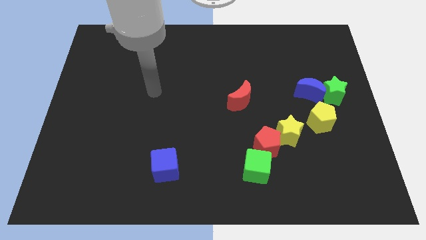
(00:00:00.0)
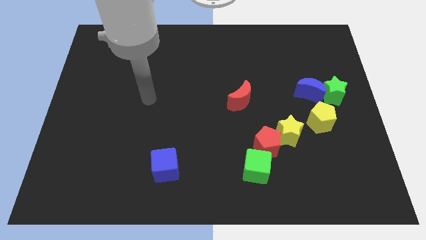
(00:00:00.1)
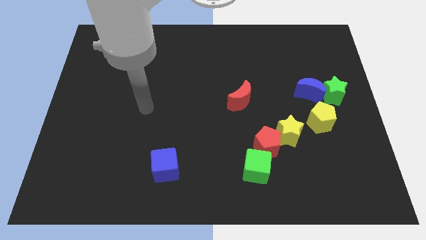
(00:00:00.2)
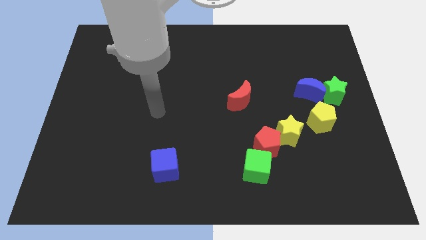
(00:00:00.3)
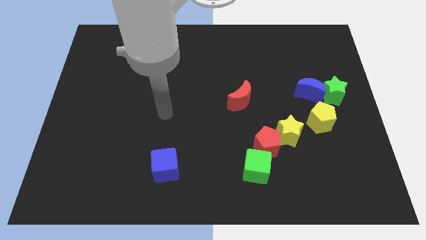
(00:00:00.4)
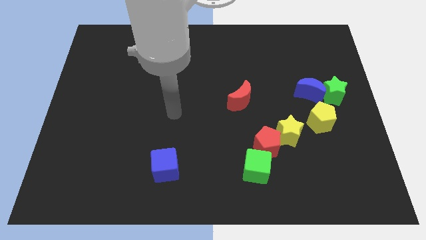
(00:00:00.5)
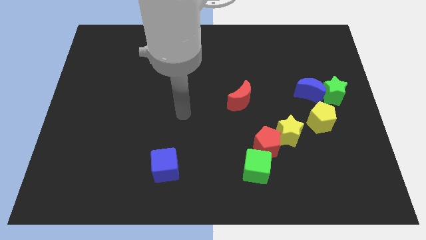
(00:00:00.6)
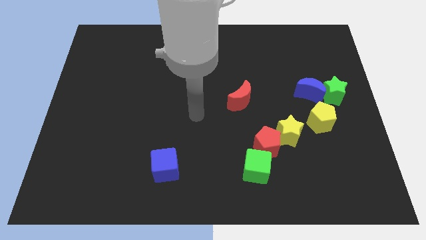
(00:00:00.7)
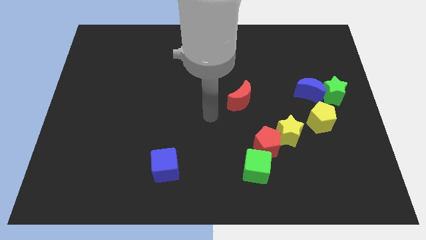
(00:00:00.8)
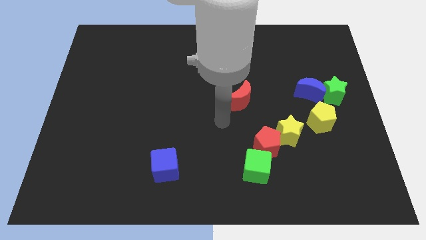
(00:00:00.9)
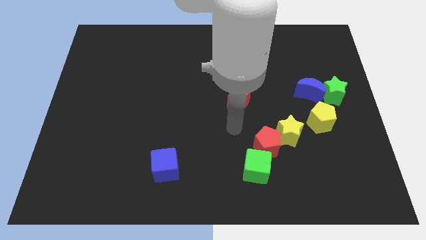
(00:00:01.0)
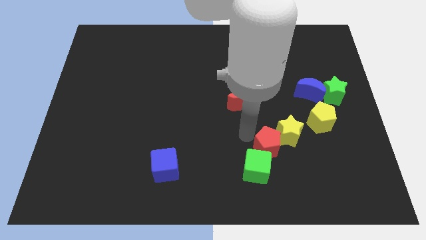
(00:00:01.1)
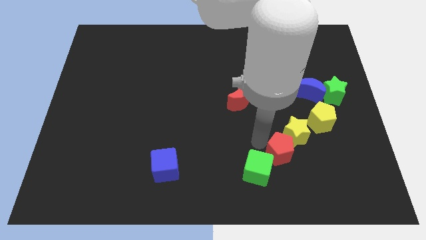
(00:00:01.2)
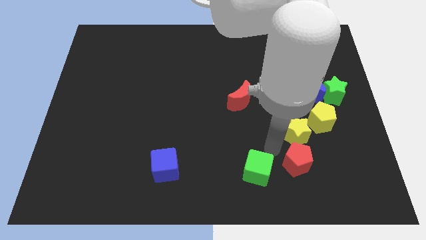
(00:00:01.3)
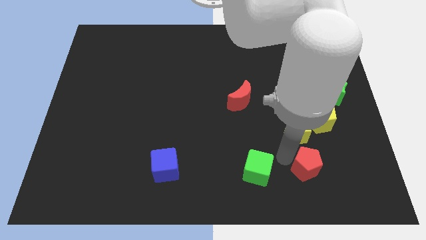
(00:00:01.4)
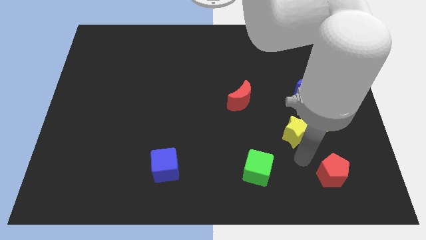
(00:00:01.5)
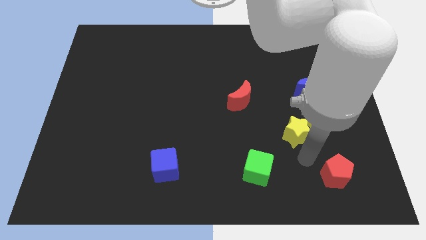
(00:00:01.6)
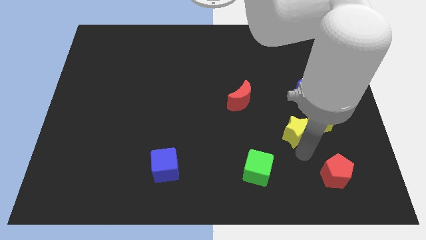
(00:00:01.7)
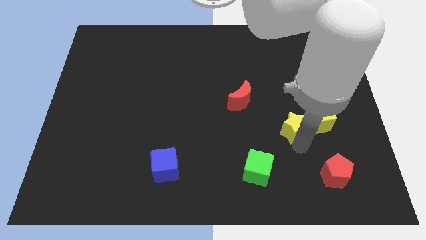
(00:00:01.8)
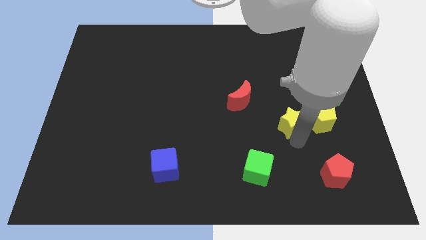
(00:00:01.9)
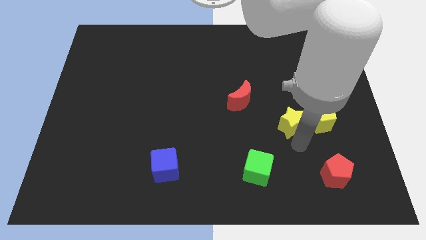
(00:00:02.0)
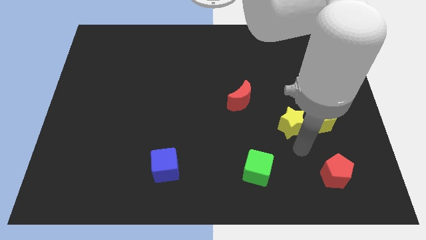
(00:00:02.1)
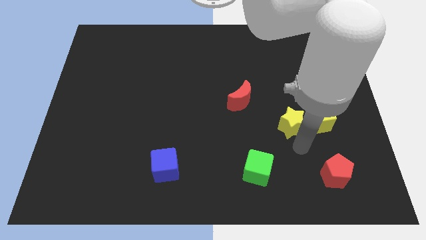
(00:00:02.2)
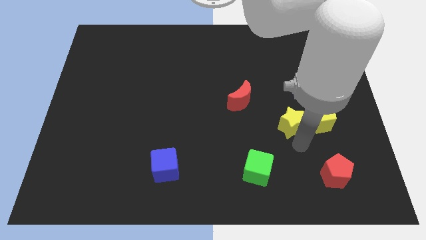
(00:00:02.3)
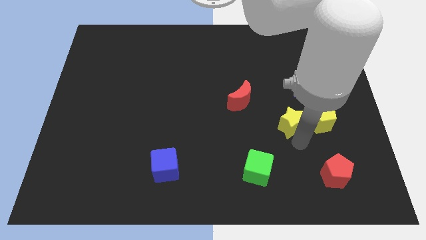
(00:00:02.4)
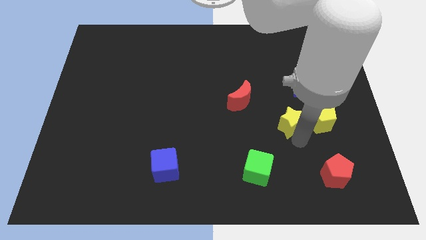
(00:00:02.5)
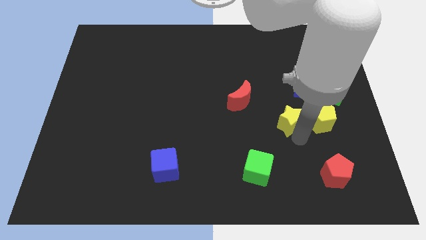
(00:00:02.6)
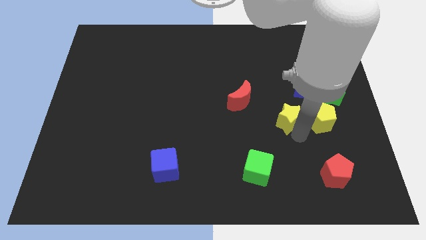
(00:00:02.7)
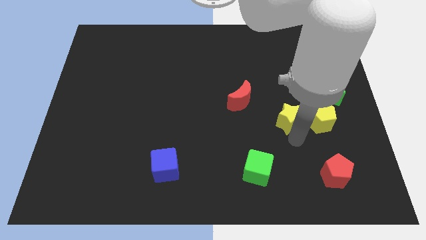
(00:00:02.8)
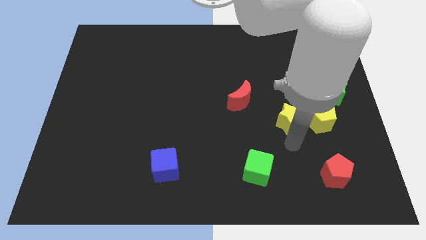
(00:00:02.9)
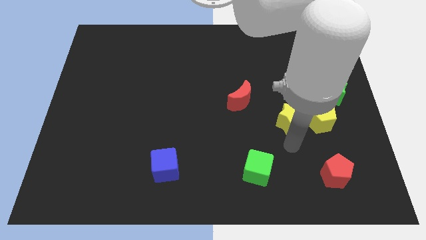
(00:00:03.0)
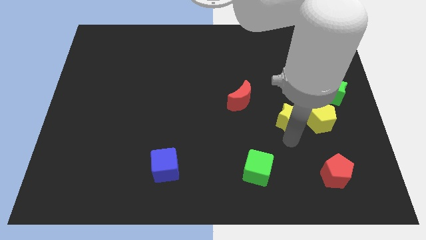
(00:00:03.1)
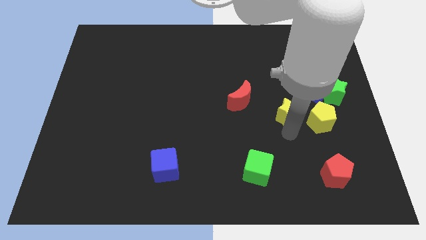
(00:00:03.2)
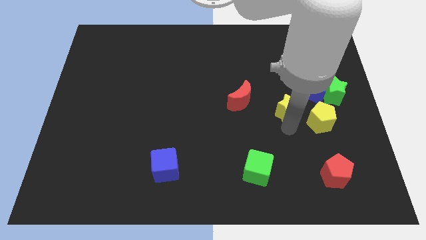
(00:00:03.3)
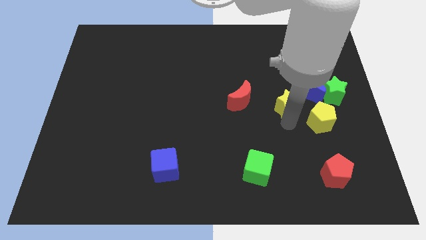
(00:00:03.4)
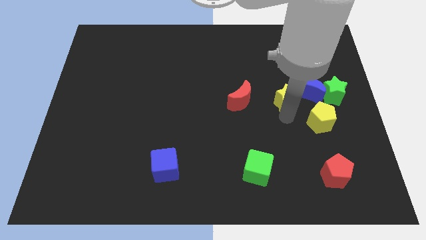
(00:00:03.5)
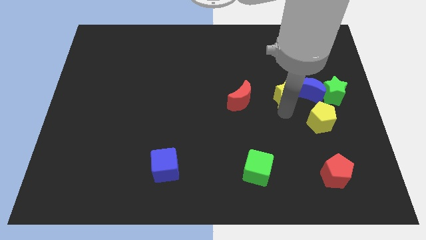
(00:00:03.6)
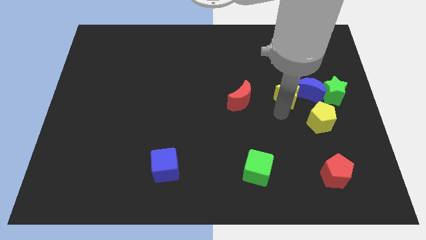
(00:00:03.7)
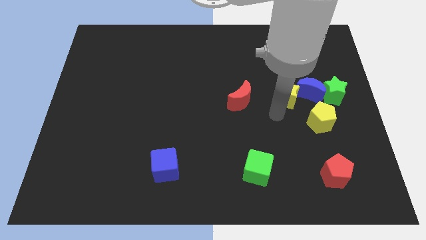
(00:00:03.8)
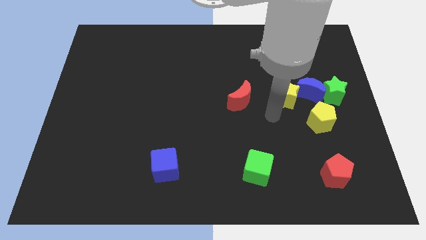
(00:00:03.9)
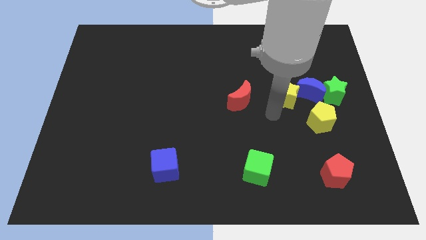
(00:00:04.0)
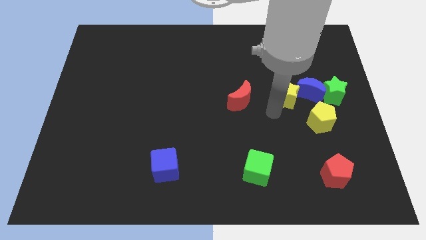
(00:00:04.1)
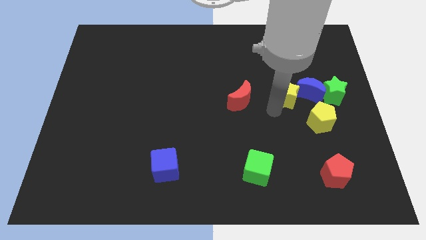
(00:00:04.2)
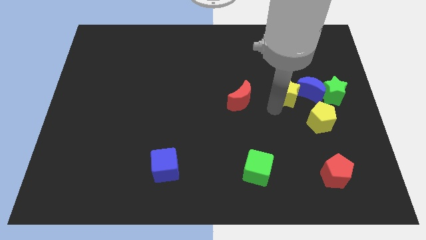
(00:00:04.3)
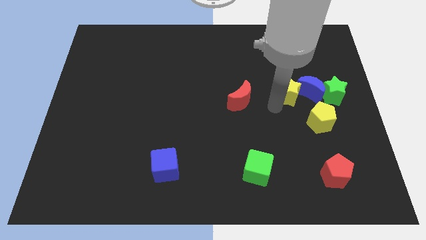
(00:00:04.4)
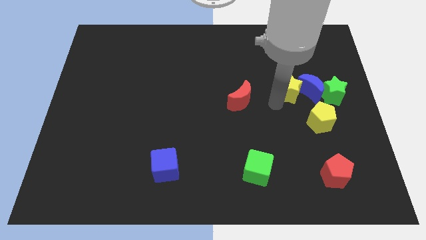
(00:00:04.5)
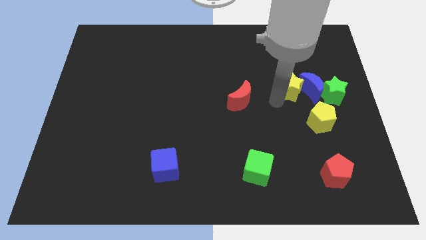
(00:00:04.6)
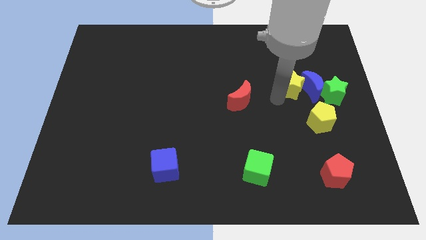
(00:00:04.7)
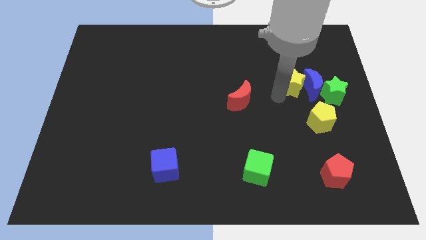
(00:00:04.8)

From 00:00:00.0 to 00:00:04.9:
slide the yellow star to the top left side of the green star

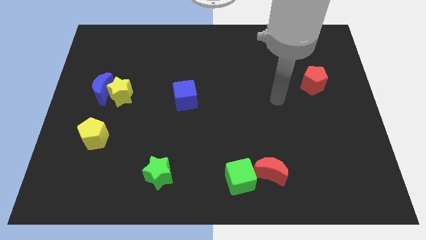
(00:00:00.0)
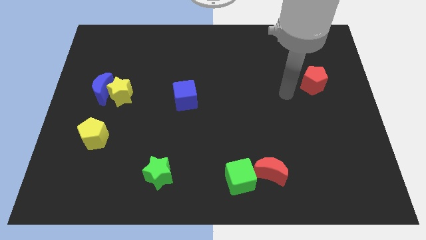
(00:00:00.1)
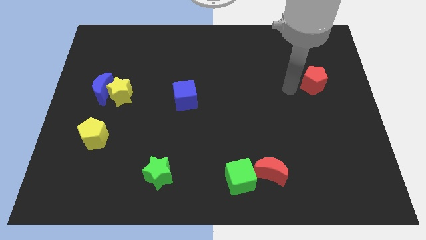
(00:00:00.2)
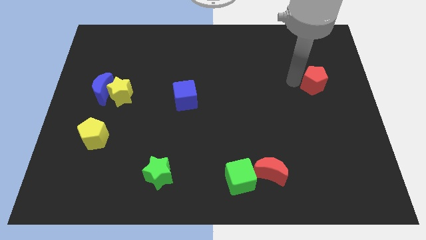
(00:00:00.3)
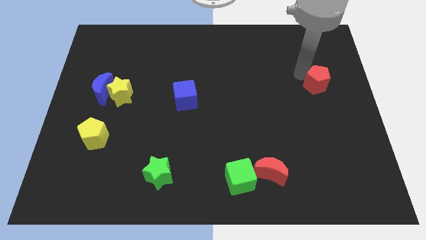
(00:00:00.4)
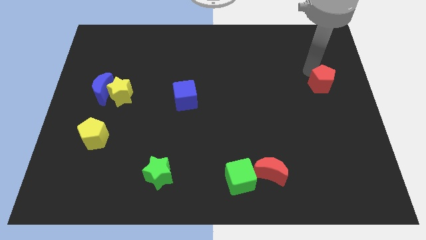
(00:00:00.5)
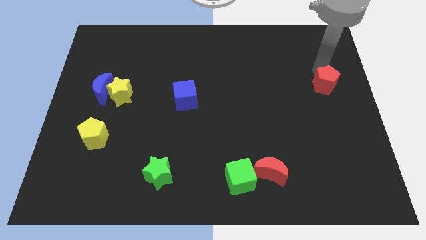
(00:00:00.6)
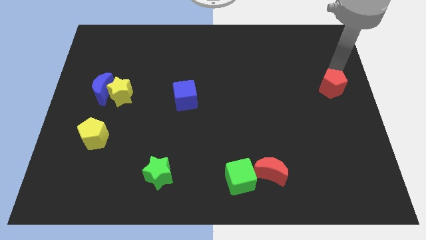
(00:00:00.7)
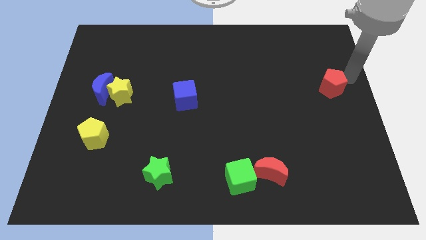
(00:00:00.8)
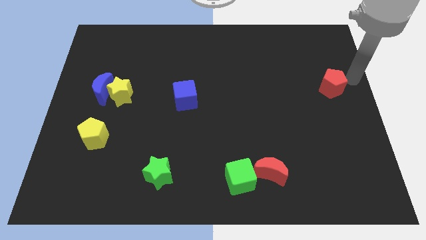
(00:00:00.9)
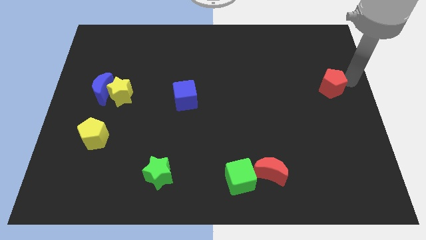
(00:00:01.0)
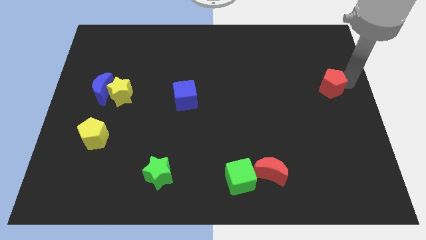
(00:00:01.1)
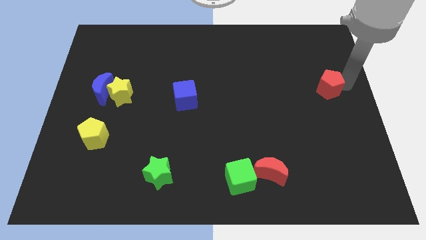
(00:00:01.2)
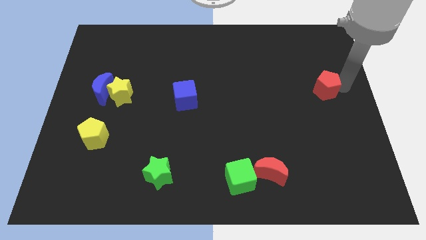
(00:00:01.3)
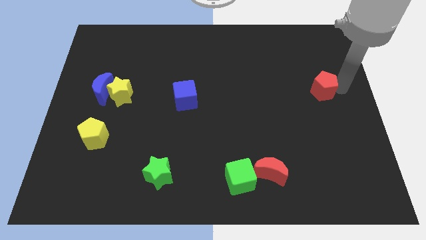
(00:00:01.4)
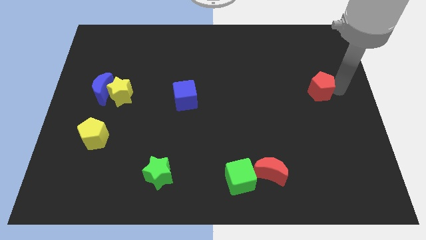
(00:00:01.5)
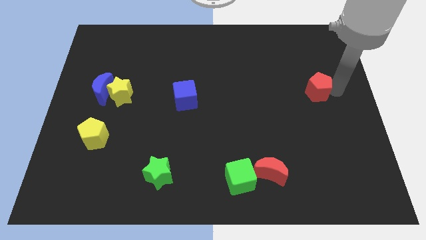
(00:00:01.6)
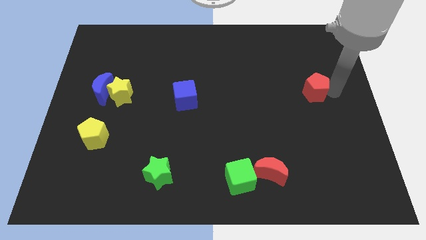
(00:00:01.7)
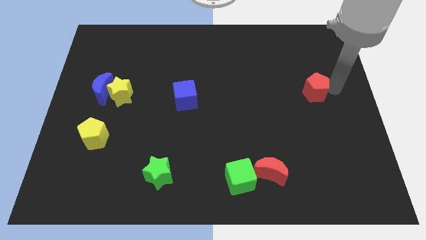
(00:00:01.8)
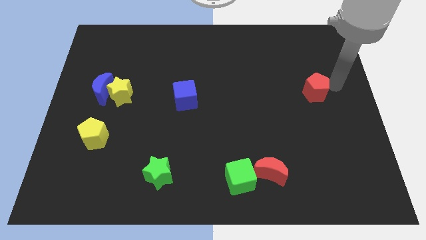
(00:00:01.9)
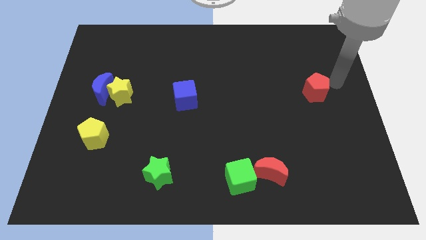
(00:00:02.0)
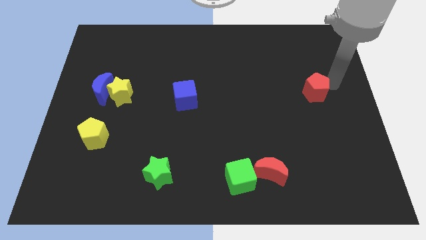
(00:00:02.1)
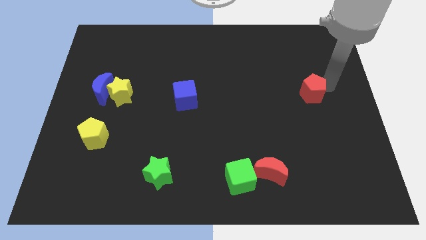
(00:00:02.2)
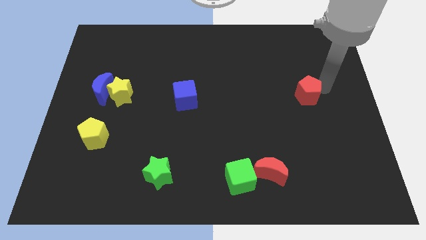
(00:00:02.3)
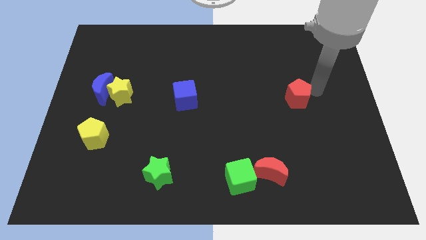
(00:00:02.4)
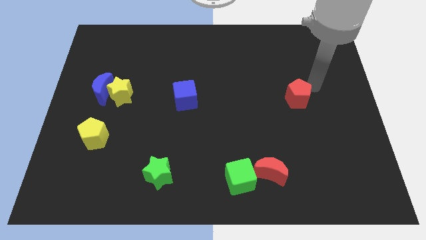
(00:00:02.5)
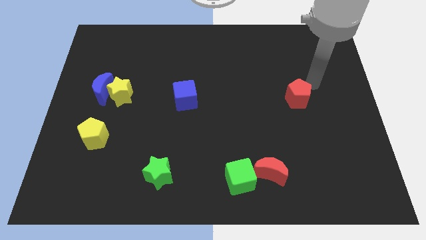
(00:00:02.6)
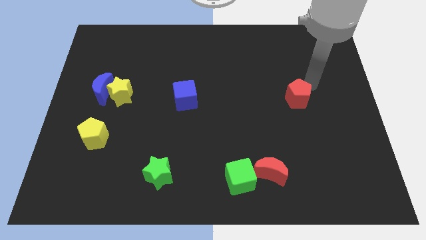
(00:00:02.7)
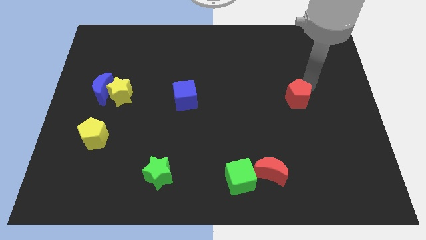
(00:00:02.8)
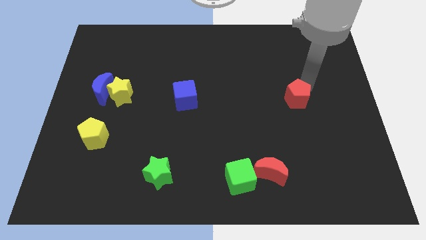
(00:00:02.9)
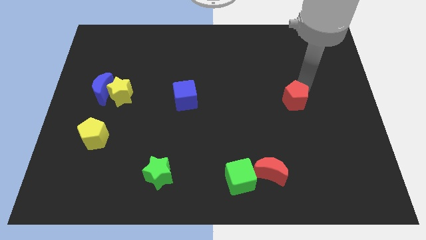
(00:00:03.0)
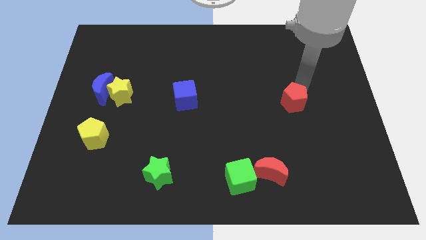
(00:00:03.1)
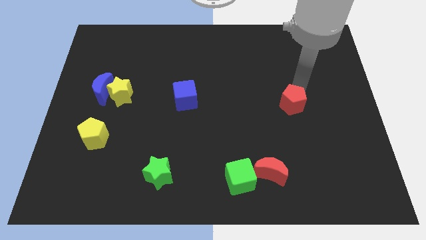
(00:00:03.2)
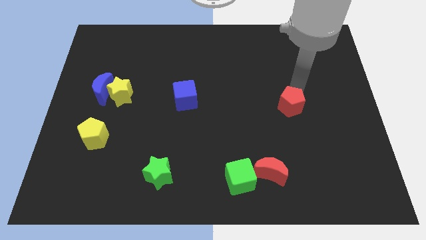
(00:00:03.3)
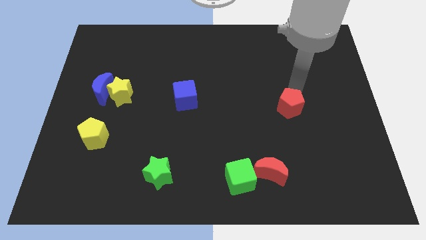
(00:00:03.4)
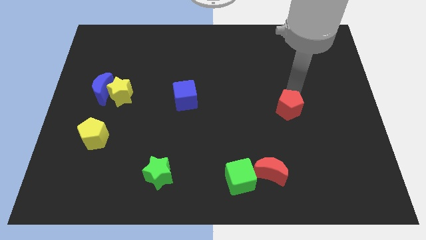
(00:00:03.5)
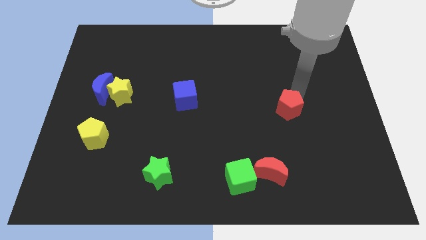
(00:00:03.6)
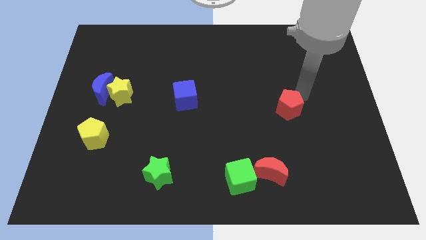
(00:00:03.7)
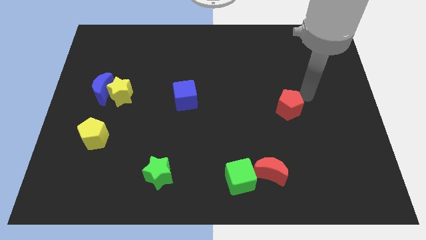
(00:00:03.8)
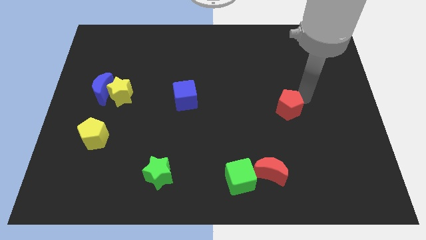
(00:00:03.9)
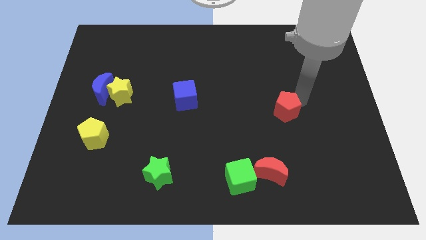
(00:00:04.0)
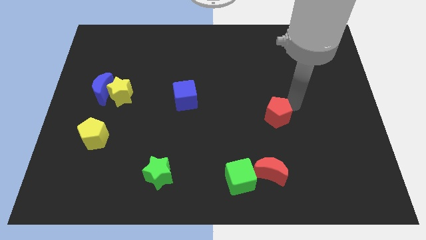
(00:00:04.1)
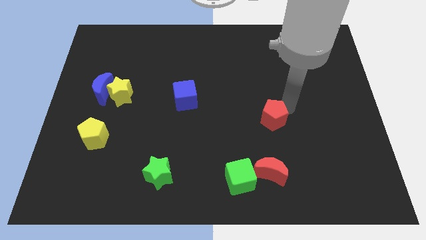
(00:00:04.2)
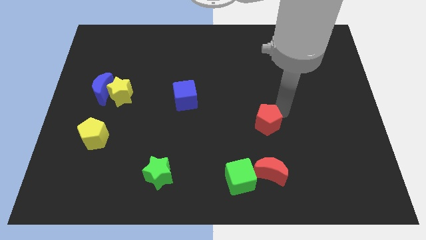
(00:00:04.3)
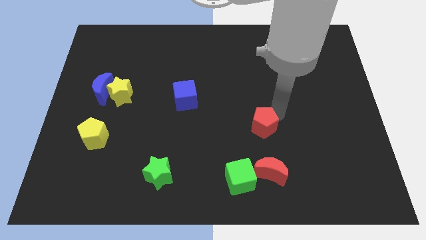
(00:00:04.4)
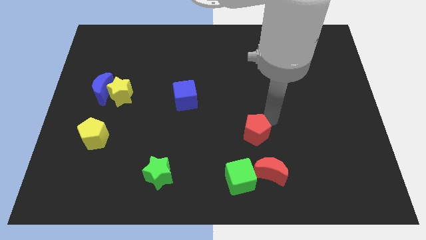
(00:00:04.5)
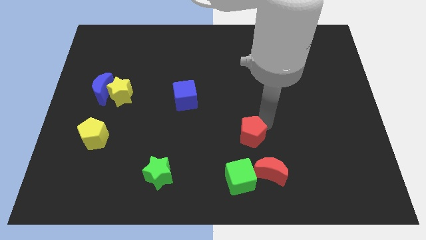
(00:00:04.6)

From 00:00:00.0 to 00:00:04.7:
slide the red pentagon diagonally up and to the left of the red moon
